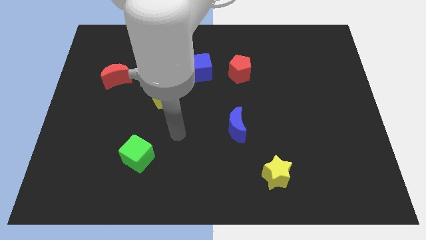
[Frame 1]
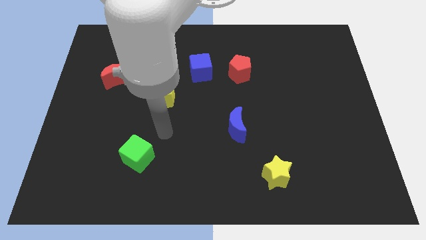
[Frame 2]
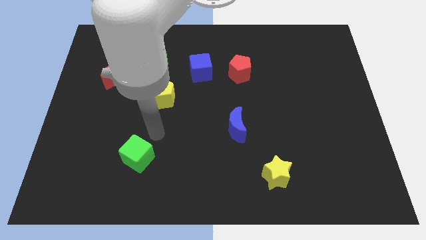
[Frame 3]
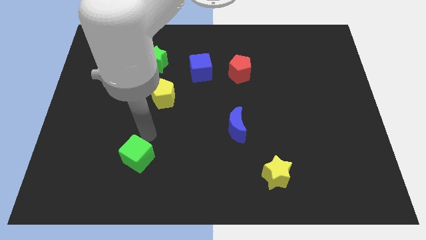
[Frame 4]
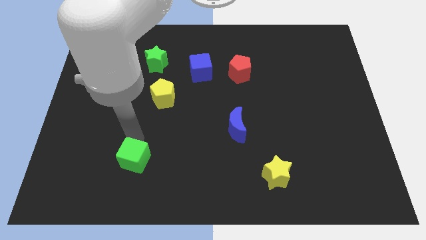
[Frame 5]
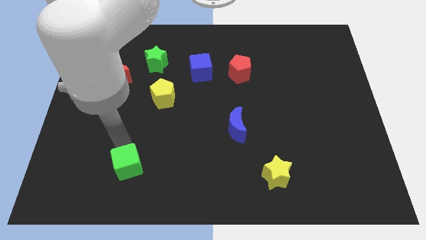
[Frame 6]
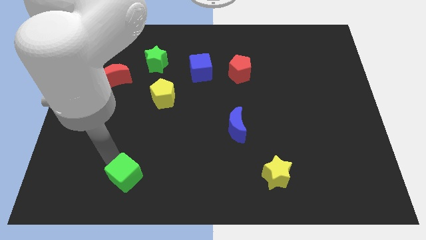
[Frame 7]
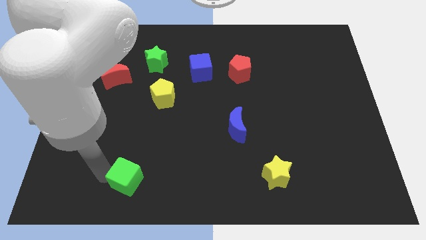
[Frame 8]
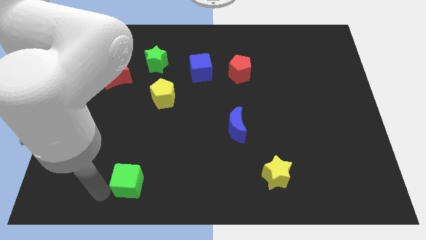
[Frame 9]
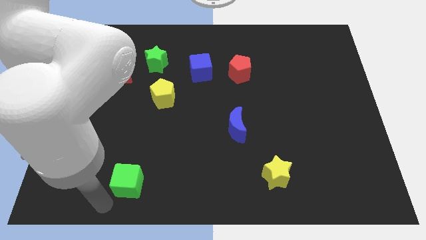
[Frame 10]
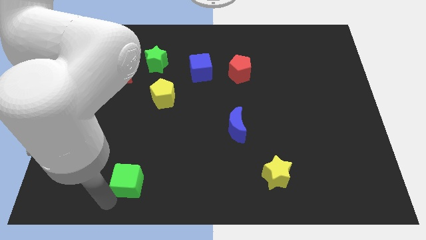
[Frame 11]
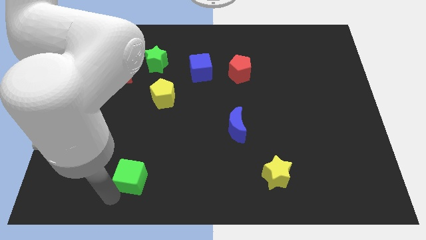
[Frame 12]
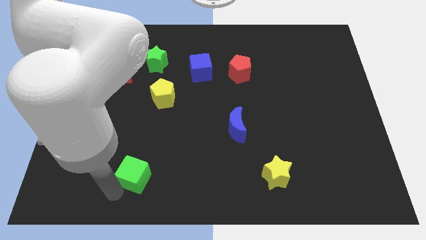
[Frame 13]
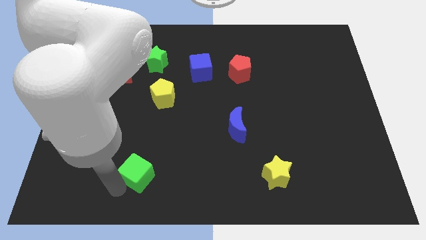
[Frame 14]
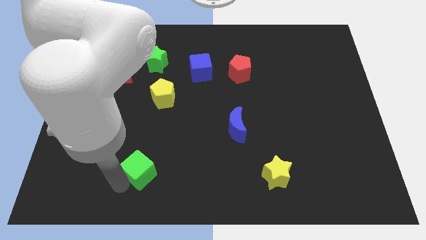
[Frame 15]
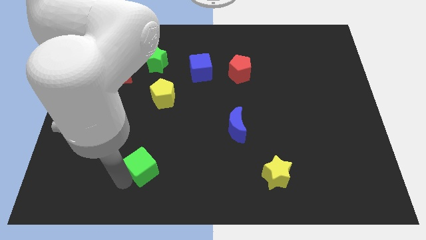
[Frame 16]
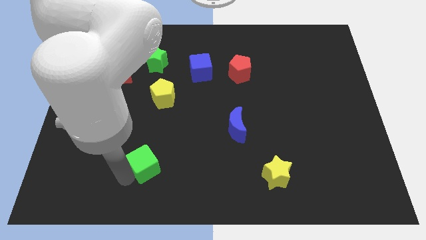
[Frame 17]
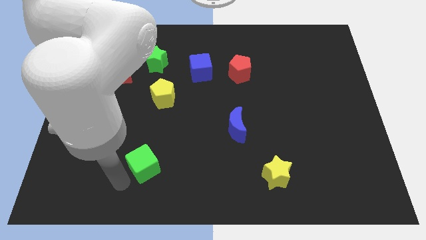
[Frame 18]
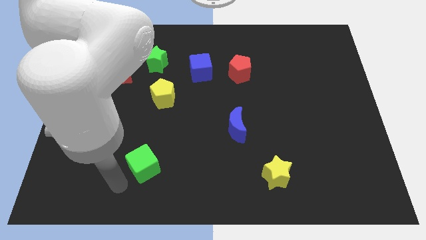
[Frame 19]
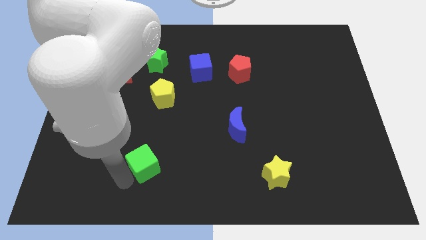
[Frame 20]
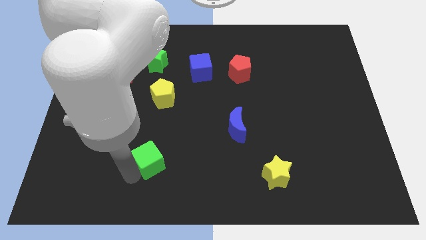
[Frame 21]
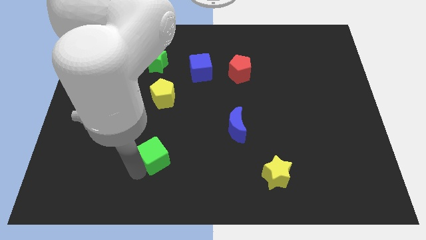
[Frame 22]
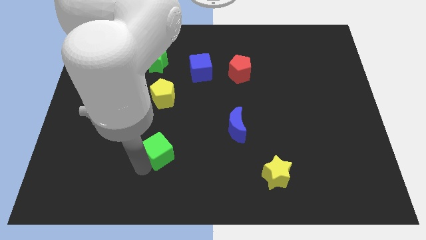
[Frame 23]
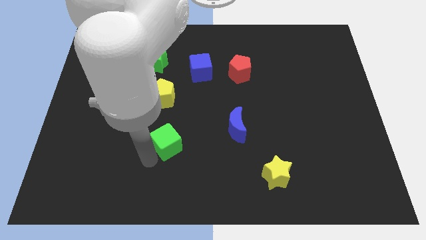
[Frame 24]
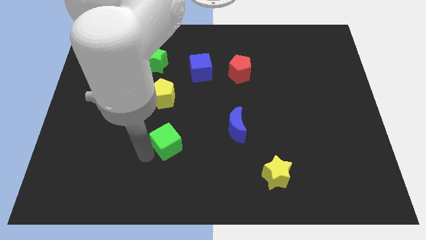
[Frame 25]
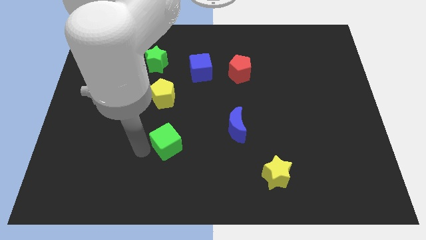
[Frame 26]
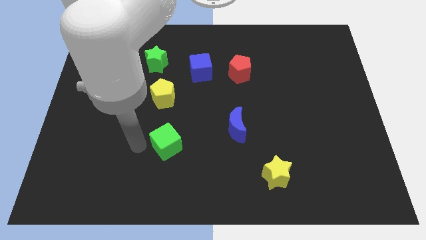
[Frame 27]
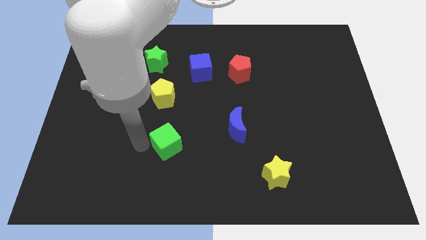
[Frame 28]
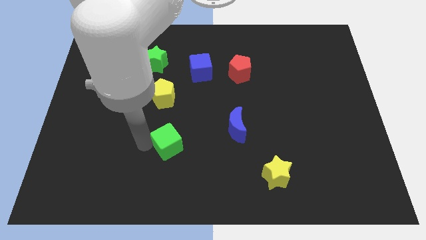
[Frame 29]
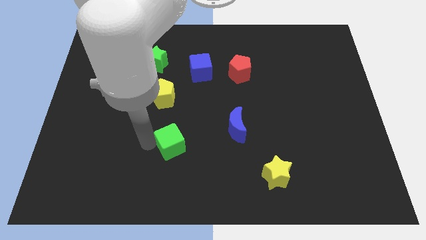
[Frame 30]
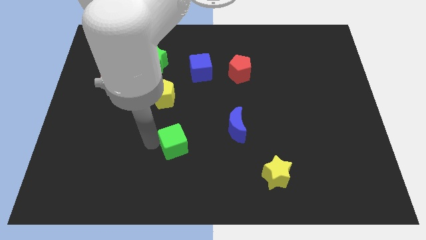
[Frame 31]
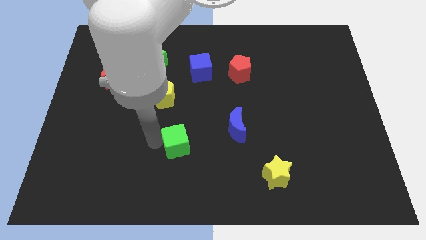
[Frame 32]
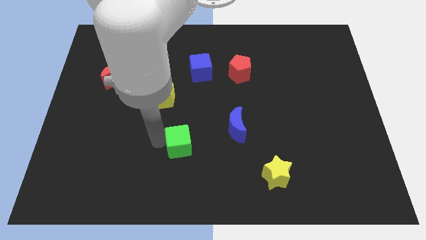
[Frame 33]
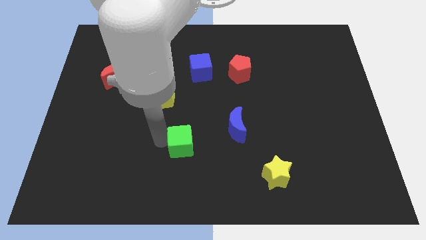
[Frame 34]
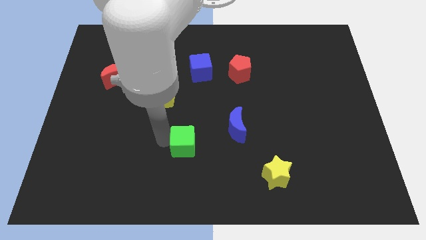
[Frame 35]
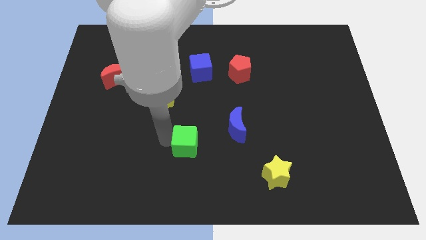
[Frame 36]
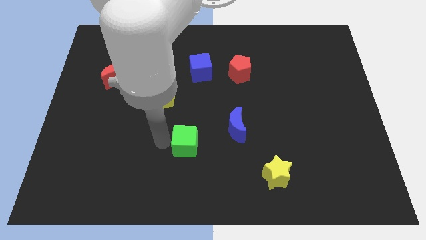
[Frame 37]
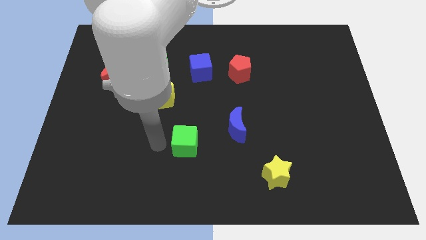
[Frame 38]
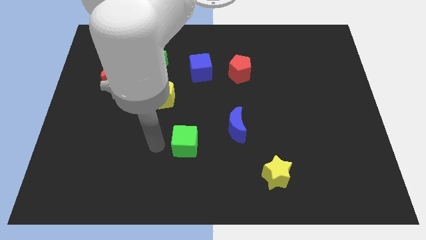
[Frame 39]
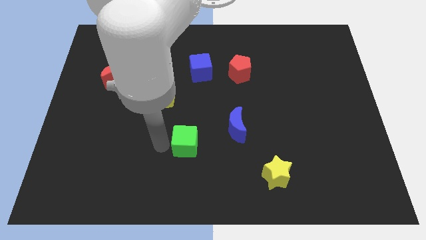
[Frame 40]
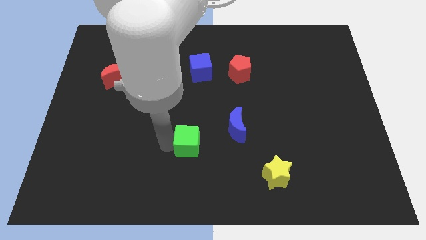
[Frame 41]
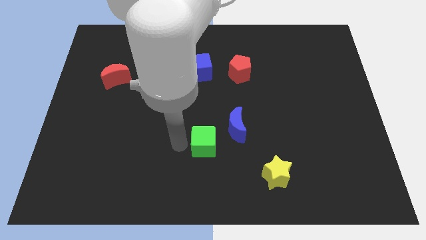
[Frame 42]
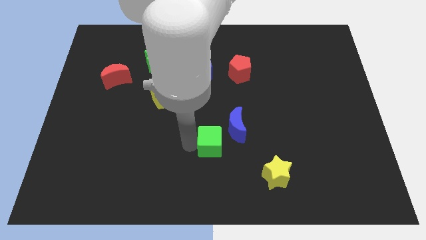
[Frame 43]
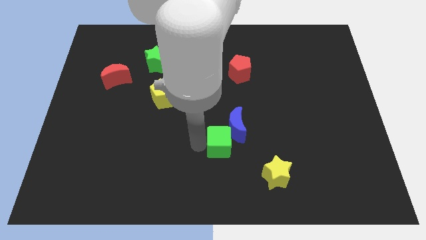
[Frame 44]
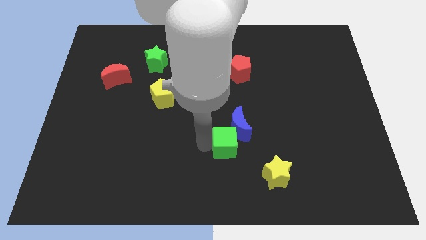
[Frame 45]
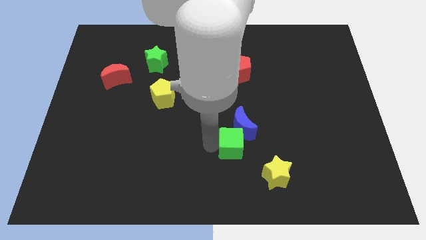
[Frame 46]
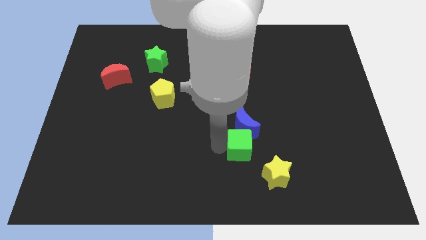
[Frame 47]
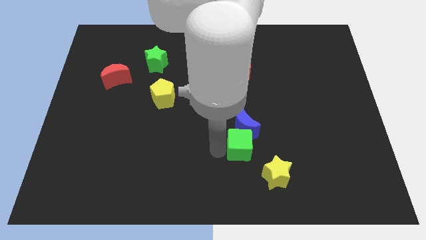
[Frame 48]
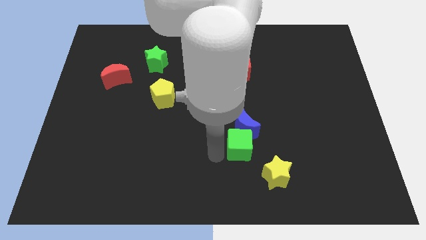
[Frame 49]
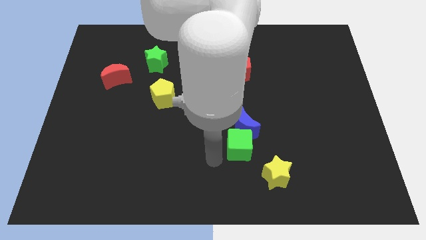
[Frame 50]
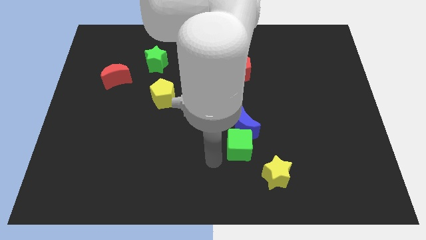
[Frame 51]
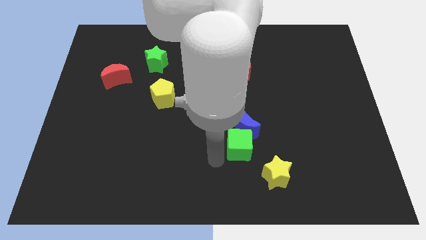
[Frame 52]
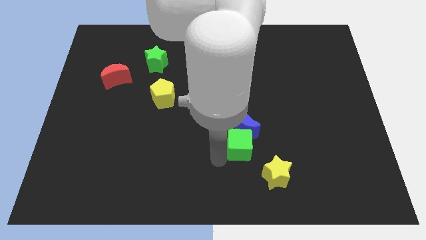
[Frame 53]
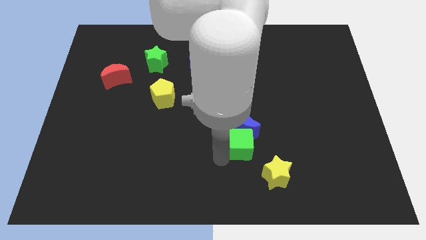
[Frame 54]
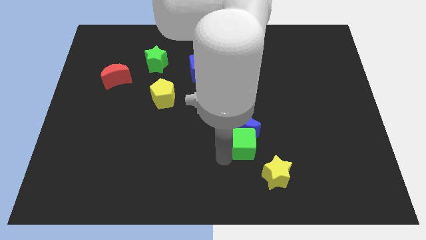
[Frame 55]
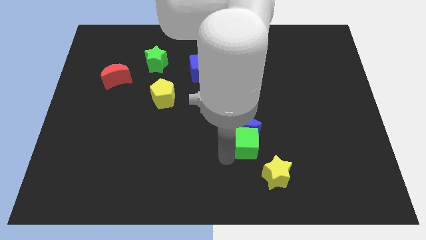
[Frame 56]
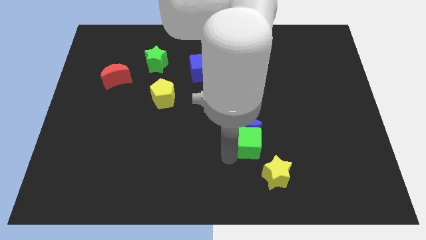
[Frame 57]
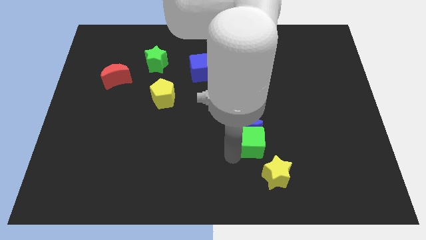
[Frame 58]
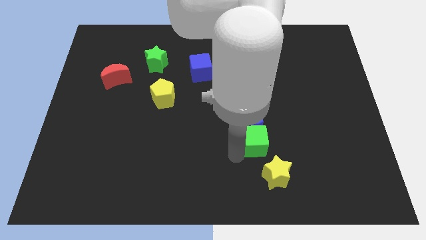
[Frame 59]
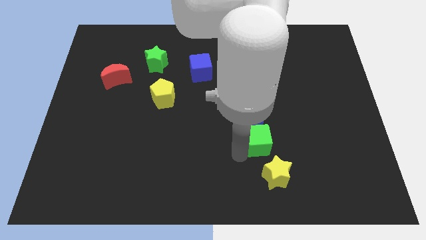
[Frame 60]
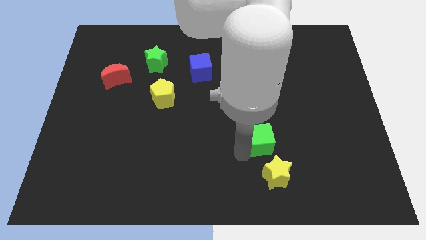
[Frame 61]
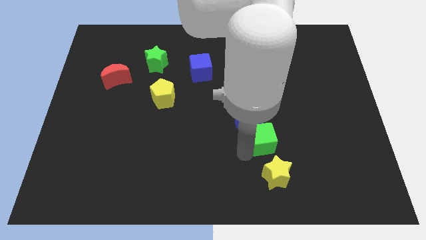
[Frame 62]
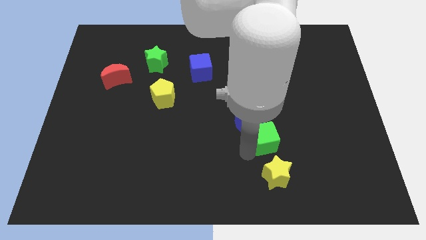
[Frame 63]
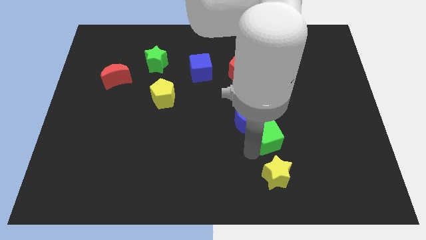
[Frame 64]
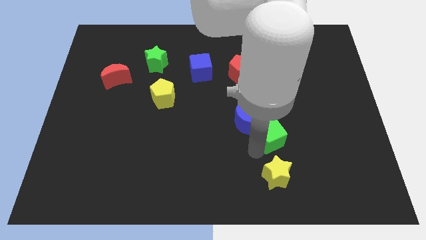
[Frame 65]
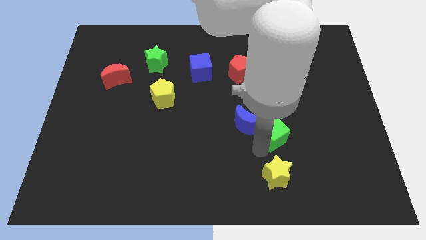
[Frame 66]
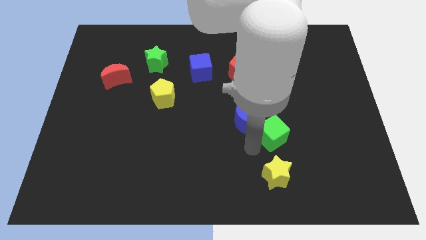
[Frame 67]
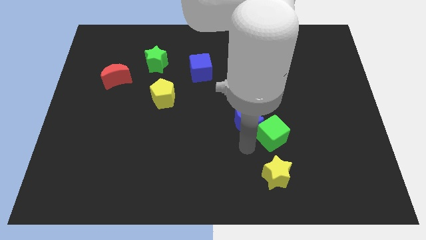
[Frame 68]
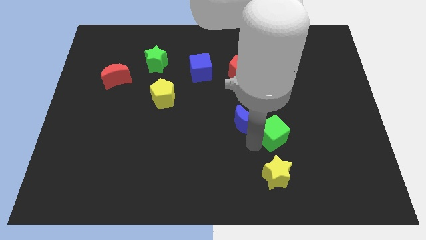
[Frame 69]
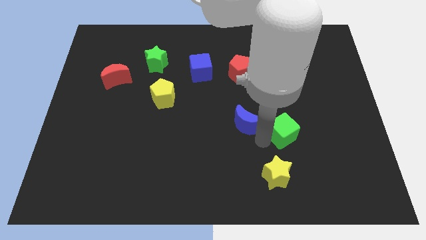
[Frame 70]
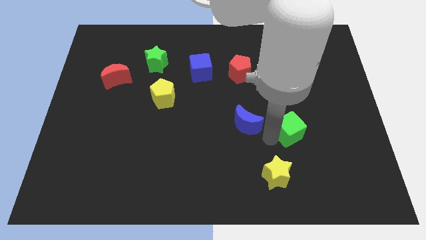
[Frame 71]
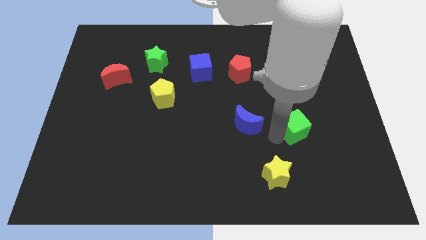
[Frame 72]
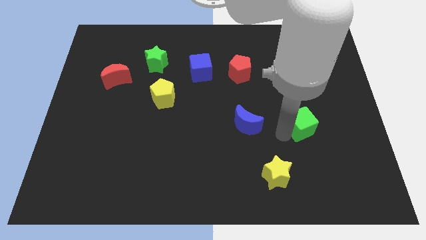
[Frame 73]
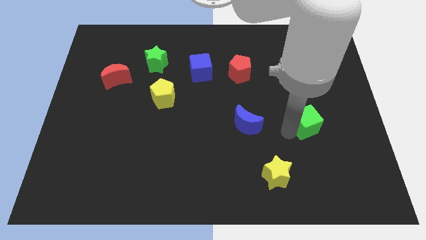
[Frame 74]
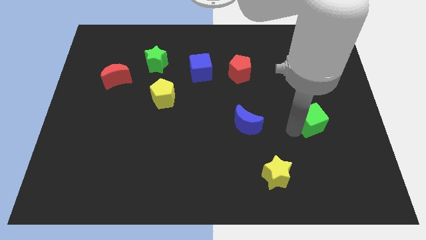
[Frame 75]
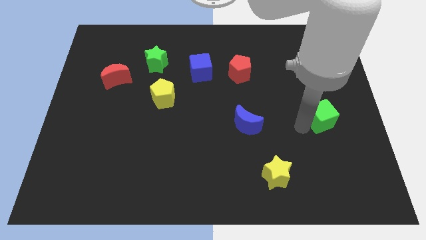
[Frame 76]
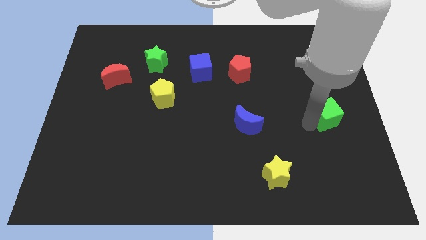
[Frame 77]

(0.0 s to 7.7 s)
push the green cube to the right side of the board
